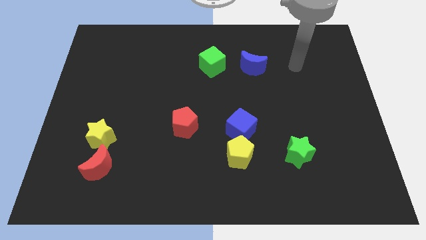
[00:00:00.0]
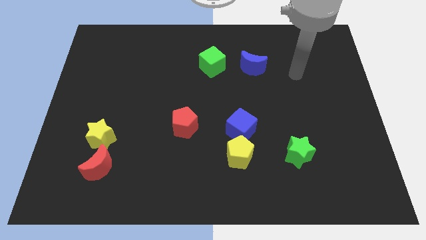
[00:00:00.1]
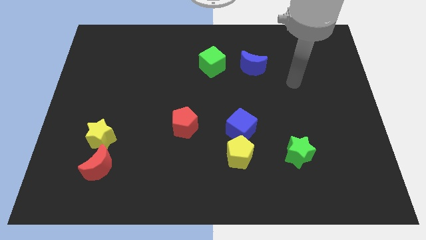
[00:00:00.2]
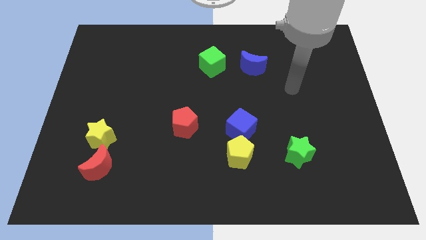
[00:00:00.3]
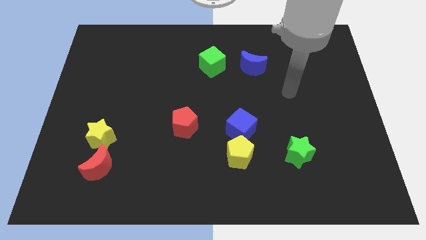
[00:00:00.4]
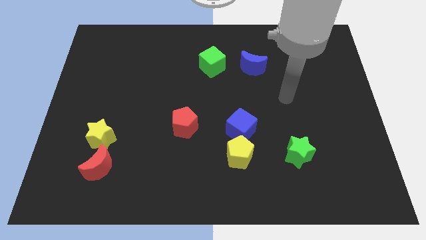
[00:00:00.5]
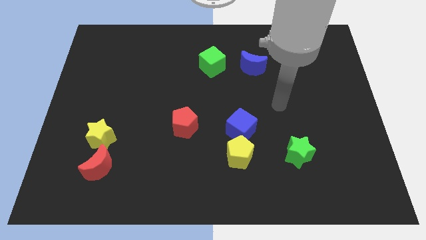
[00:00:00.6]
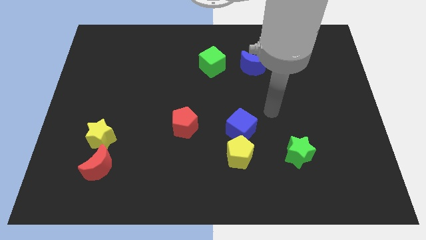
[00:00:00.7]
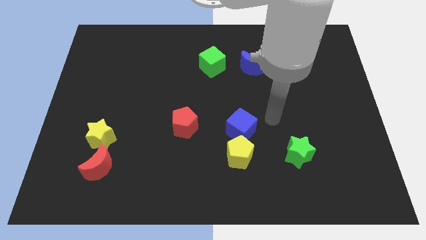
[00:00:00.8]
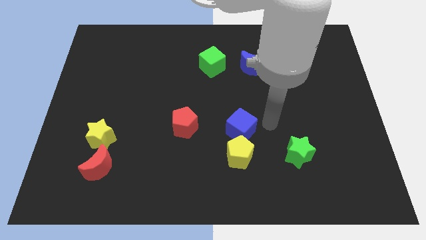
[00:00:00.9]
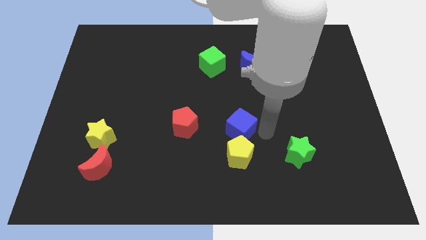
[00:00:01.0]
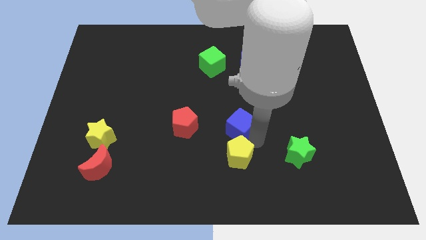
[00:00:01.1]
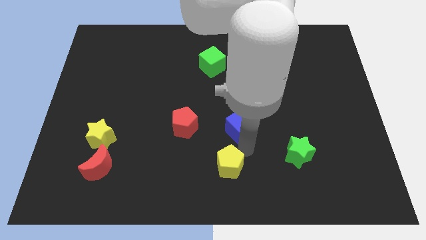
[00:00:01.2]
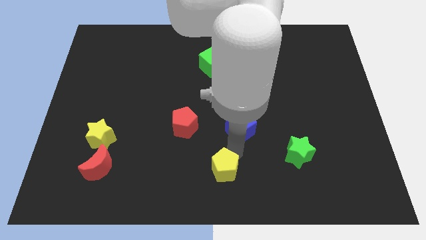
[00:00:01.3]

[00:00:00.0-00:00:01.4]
pull the blue cube apart from the yellow pentagon

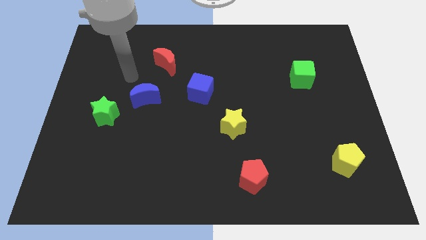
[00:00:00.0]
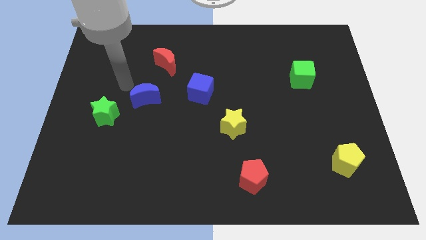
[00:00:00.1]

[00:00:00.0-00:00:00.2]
pull the blue moon apart from the green star

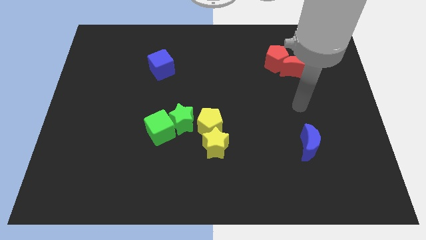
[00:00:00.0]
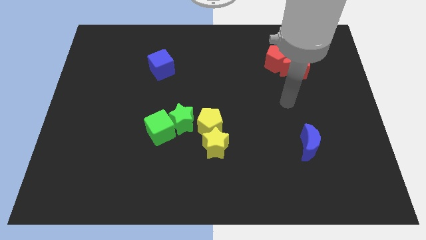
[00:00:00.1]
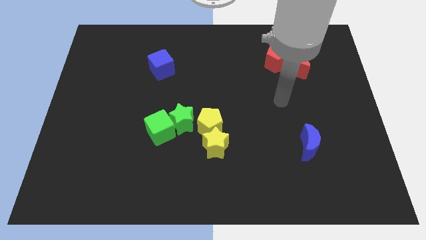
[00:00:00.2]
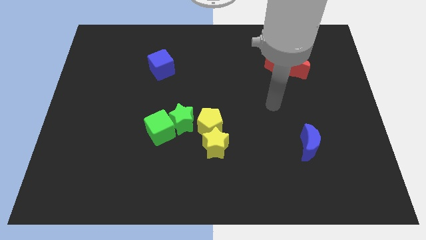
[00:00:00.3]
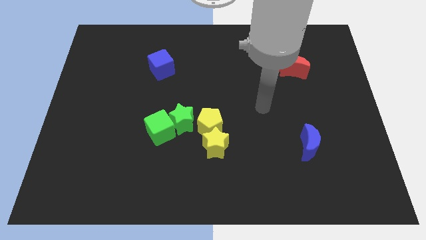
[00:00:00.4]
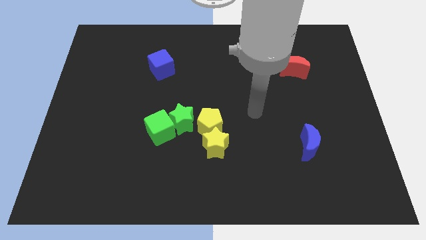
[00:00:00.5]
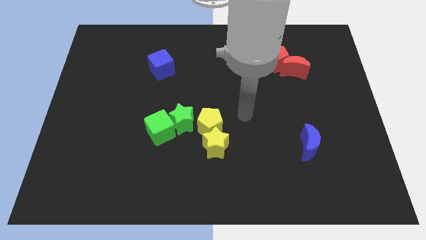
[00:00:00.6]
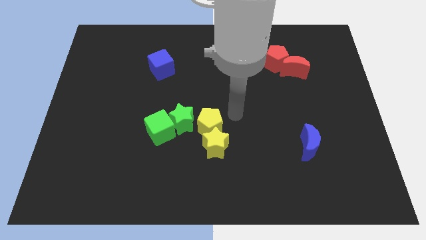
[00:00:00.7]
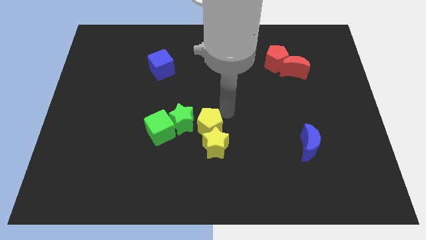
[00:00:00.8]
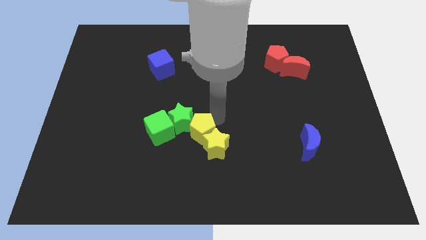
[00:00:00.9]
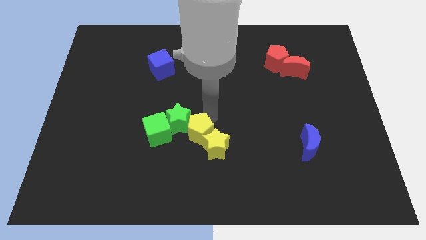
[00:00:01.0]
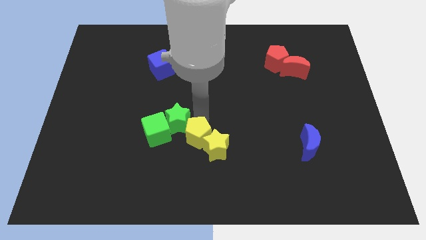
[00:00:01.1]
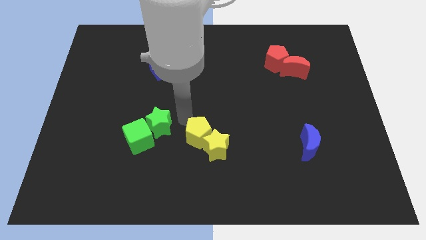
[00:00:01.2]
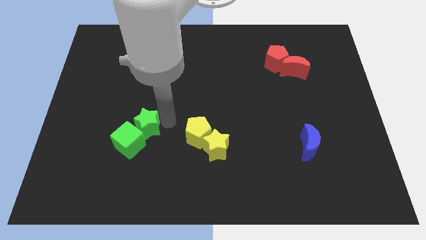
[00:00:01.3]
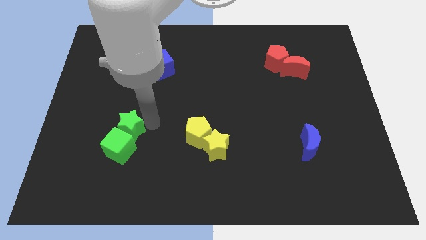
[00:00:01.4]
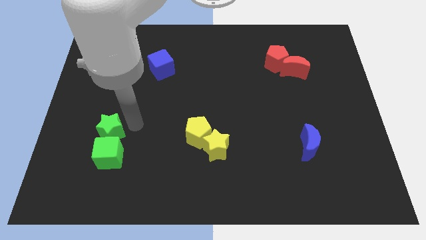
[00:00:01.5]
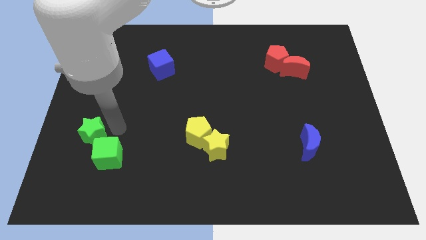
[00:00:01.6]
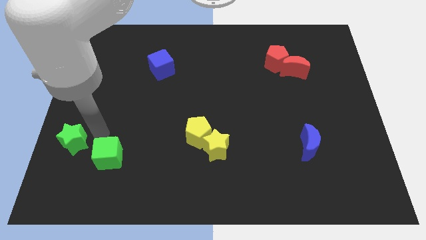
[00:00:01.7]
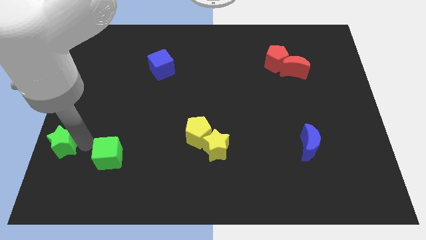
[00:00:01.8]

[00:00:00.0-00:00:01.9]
move the green cube away from the green star

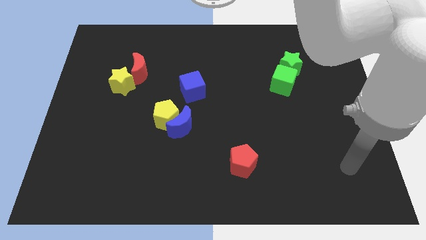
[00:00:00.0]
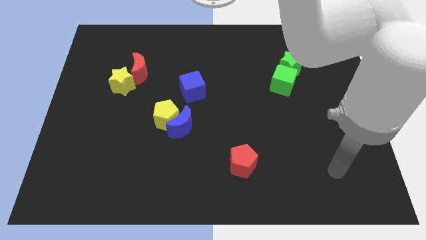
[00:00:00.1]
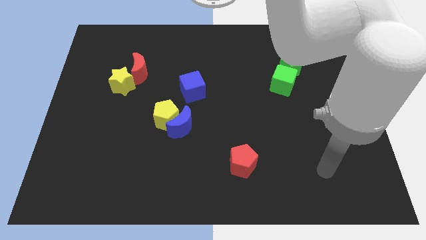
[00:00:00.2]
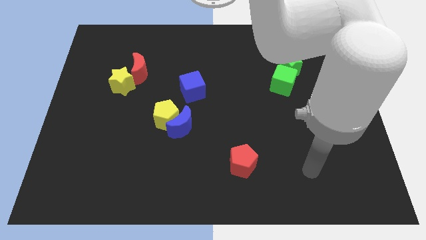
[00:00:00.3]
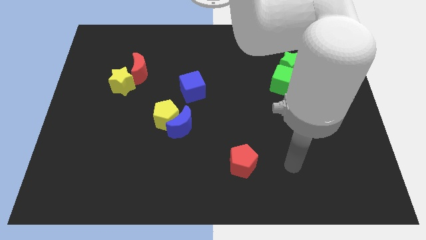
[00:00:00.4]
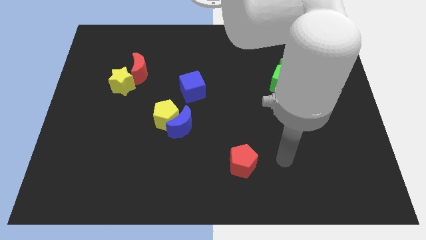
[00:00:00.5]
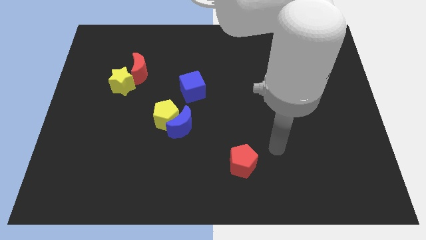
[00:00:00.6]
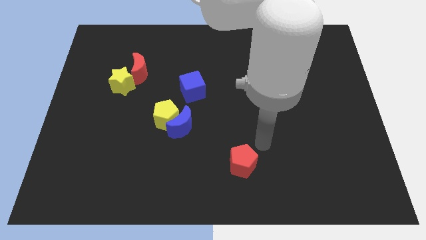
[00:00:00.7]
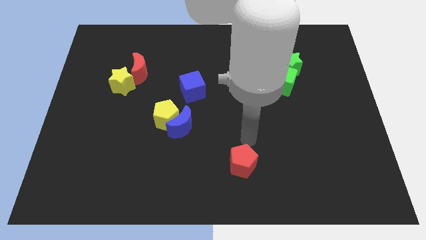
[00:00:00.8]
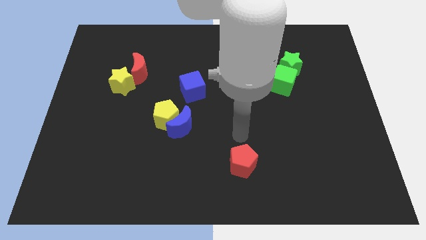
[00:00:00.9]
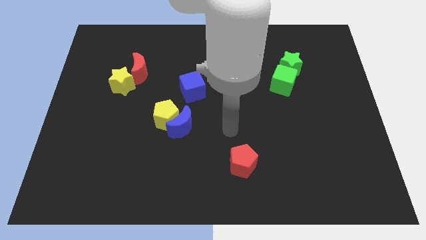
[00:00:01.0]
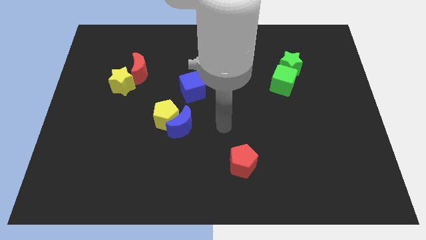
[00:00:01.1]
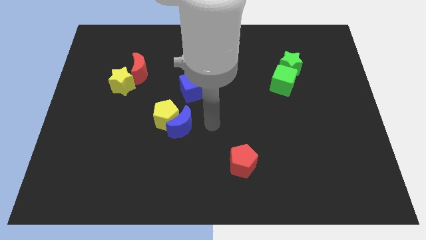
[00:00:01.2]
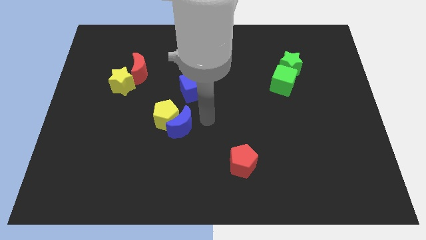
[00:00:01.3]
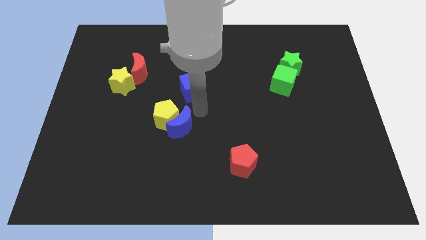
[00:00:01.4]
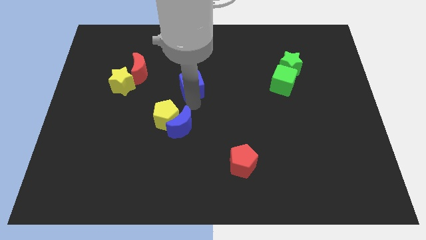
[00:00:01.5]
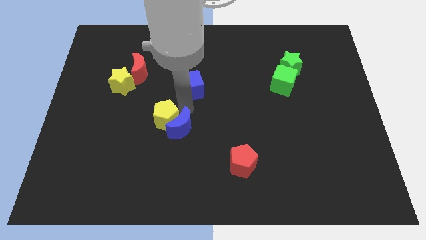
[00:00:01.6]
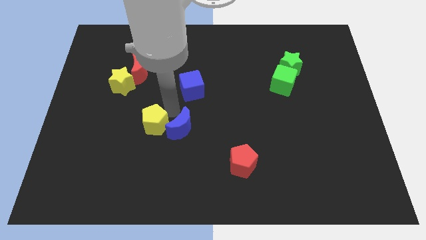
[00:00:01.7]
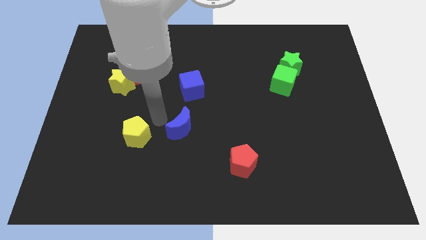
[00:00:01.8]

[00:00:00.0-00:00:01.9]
move the blue moon away from the yellow pentagon

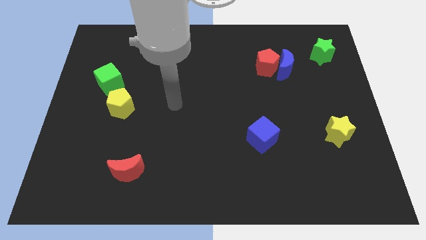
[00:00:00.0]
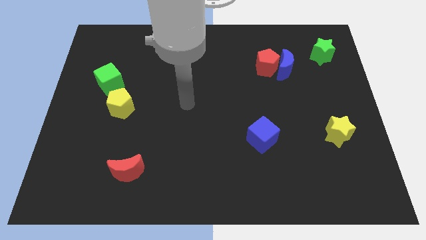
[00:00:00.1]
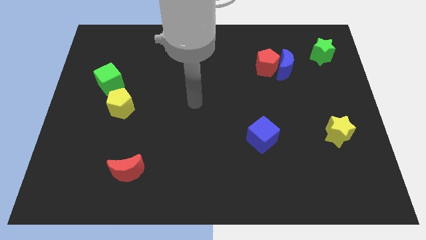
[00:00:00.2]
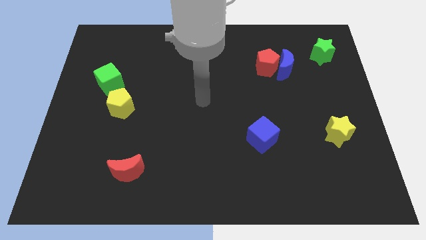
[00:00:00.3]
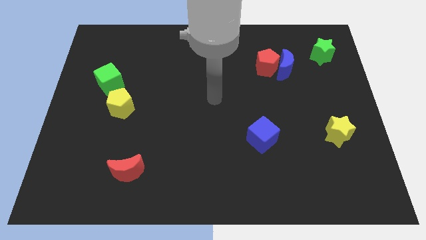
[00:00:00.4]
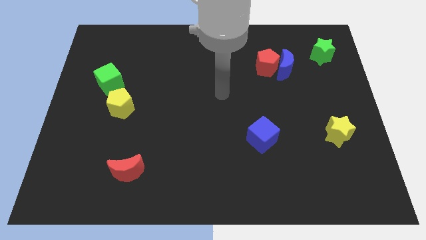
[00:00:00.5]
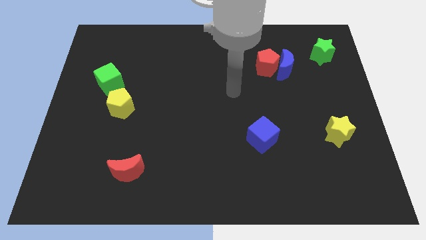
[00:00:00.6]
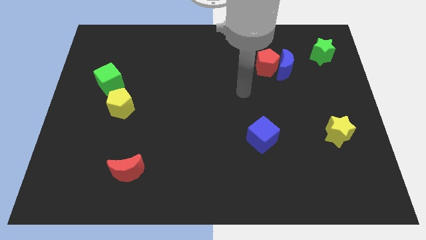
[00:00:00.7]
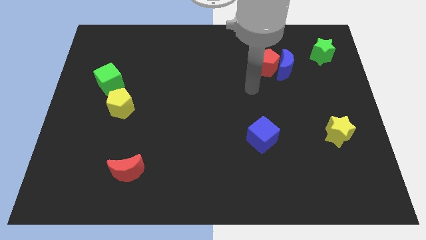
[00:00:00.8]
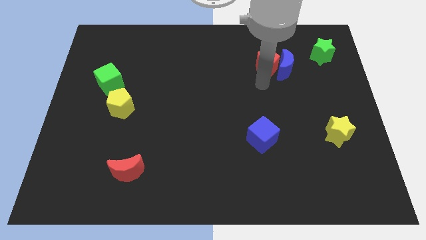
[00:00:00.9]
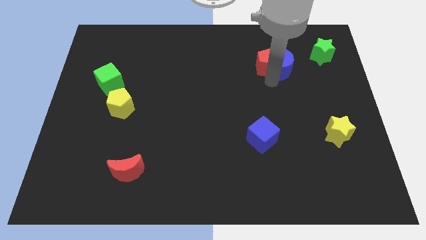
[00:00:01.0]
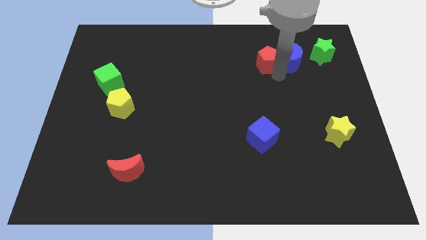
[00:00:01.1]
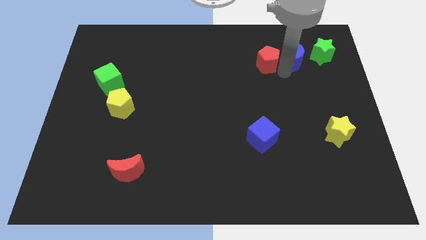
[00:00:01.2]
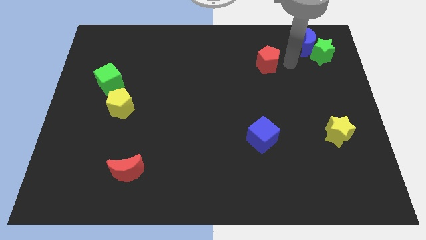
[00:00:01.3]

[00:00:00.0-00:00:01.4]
separate the red pentagon from the blue moon

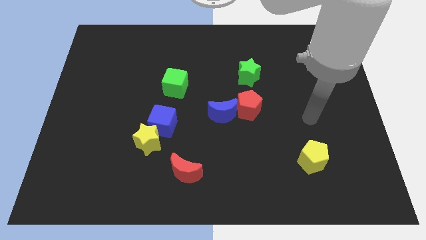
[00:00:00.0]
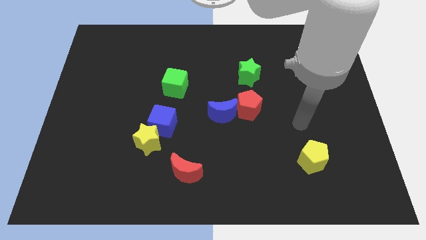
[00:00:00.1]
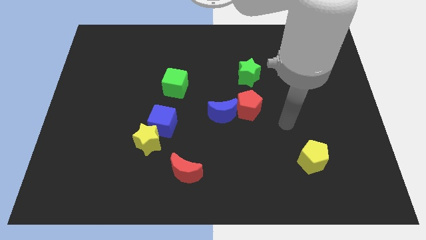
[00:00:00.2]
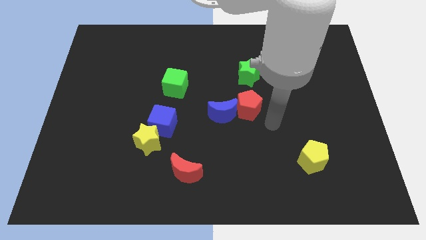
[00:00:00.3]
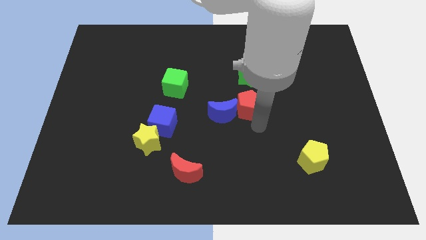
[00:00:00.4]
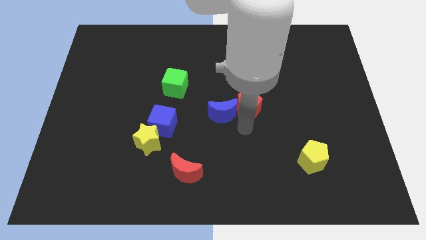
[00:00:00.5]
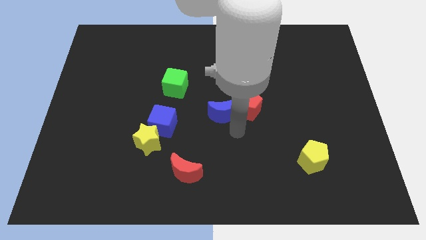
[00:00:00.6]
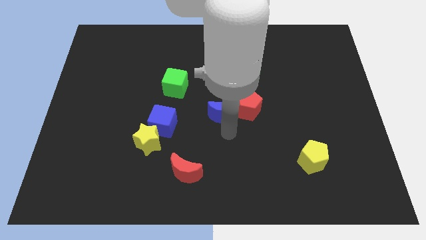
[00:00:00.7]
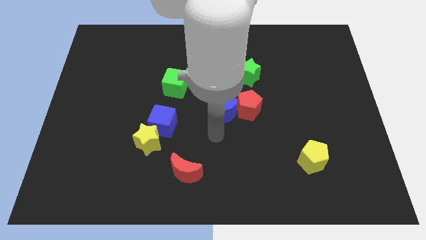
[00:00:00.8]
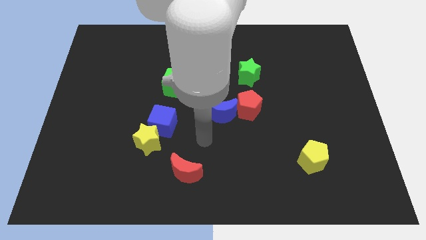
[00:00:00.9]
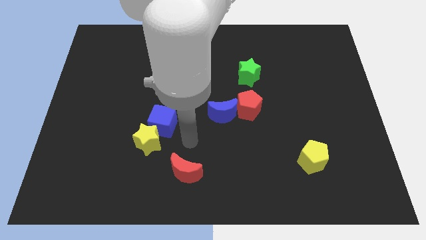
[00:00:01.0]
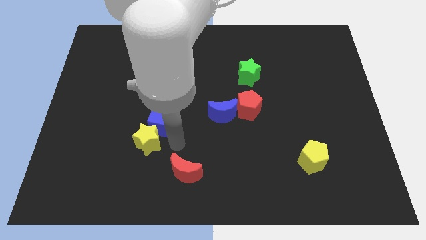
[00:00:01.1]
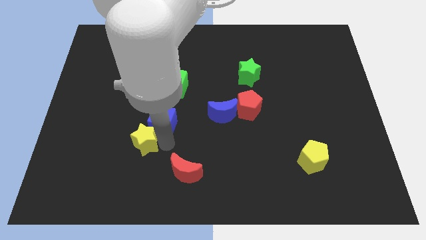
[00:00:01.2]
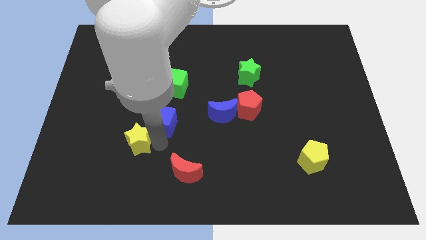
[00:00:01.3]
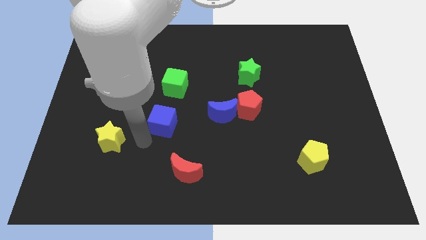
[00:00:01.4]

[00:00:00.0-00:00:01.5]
pull the blue cube apart from the yellow star

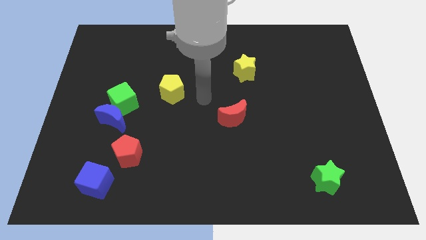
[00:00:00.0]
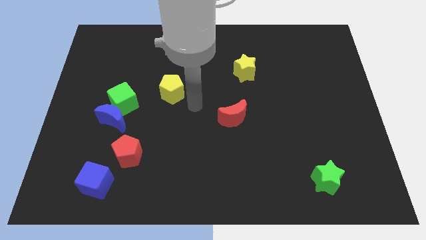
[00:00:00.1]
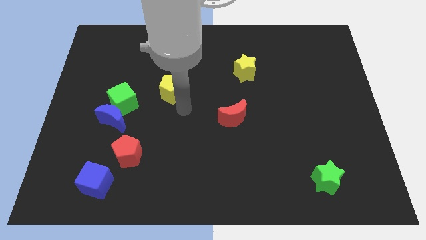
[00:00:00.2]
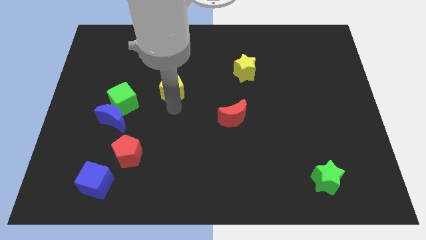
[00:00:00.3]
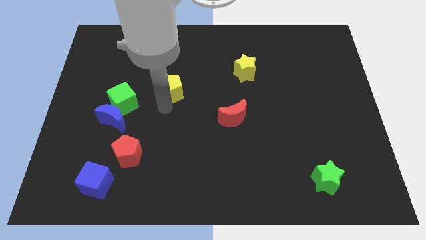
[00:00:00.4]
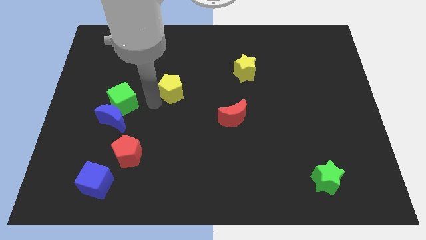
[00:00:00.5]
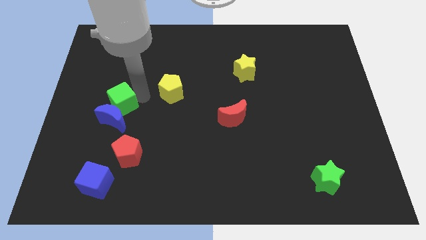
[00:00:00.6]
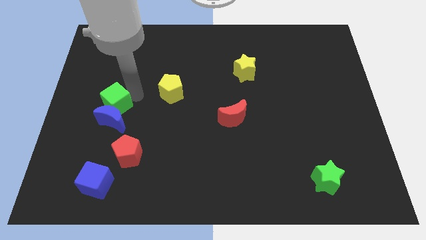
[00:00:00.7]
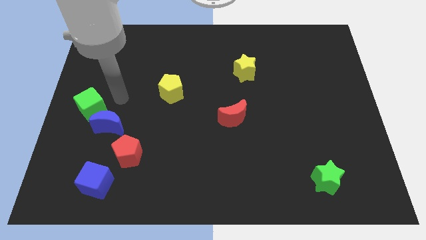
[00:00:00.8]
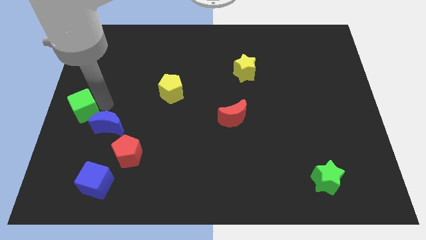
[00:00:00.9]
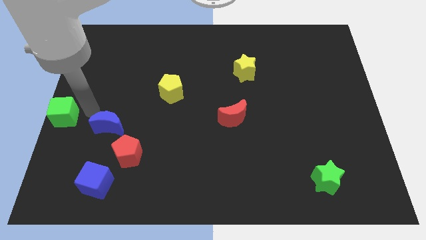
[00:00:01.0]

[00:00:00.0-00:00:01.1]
separate the blue moon from the green cube
